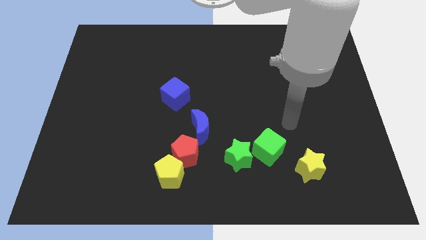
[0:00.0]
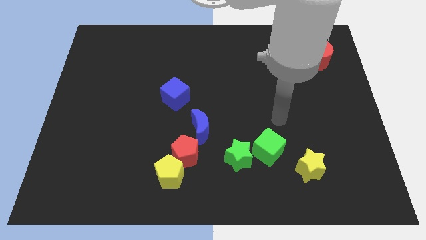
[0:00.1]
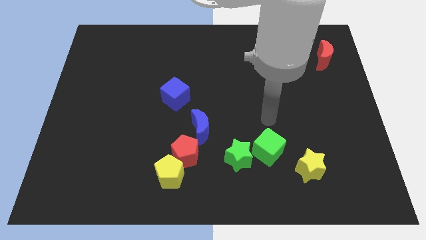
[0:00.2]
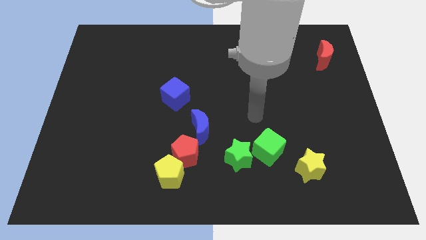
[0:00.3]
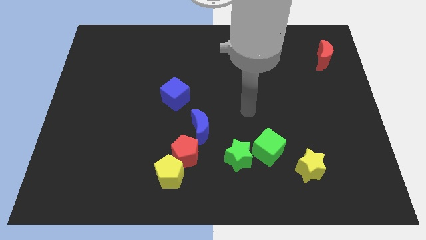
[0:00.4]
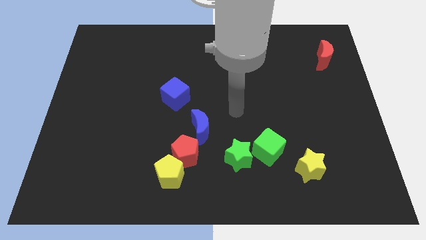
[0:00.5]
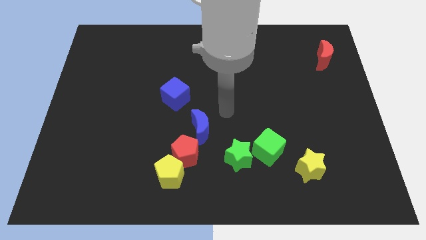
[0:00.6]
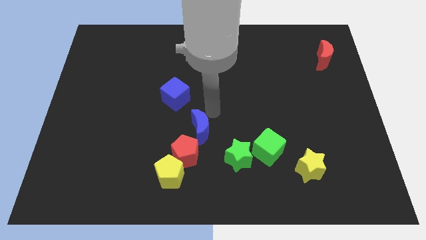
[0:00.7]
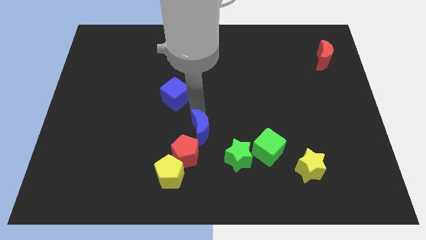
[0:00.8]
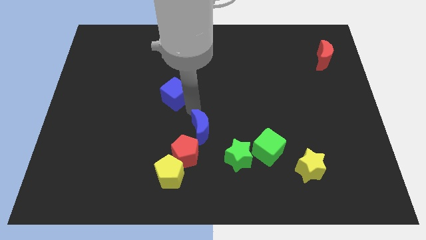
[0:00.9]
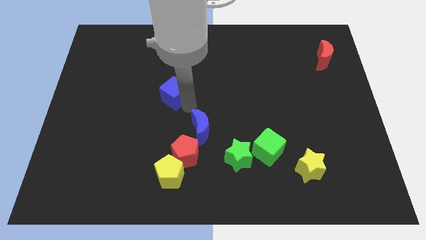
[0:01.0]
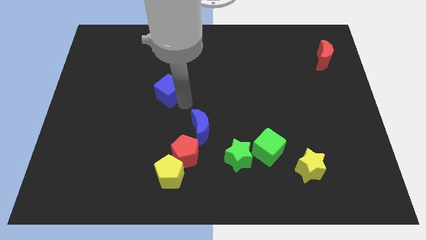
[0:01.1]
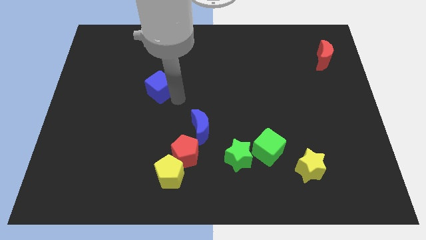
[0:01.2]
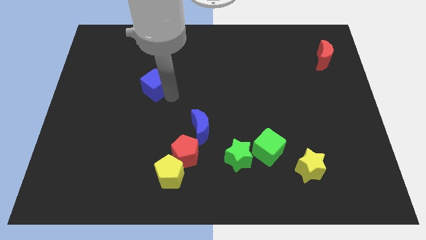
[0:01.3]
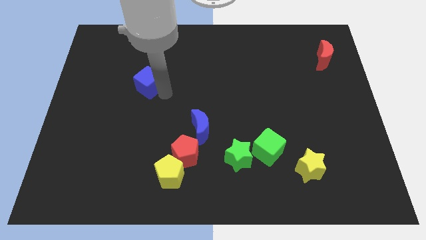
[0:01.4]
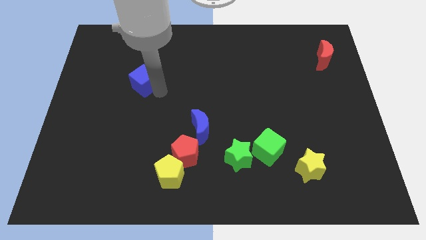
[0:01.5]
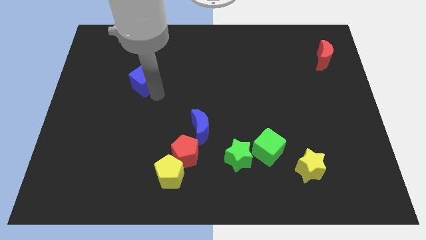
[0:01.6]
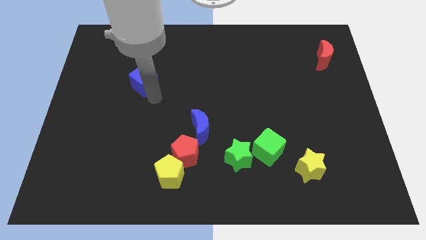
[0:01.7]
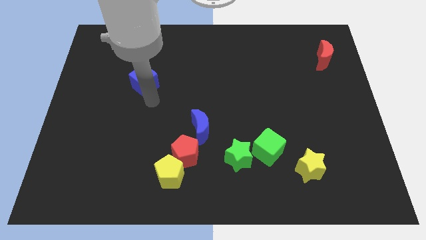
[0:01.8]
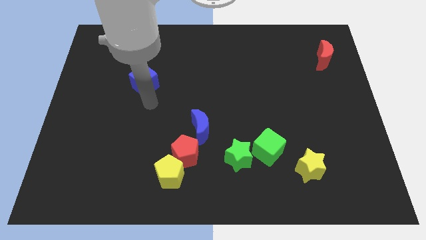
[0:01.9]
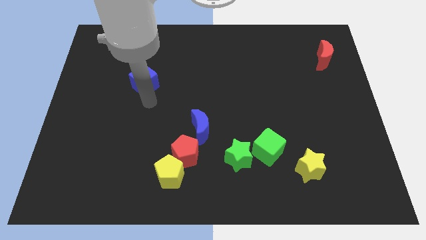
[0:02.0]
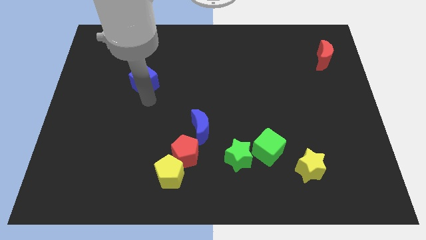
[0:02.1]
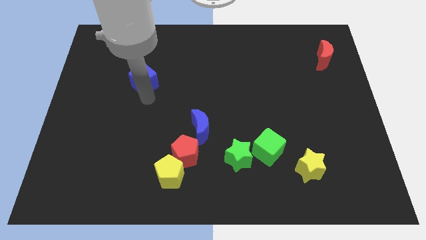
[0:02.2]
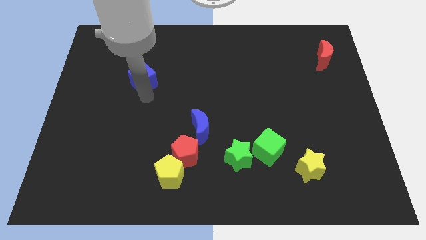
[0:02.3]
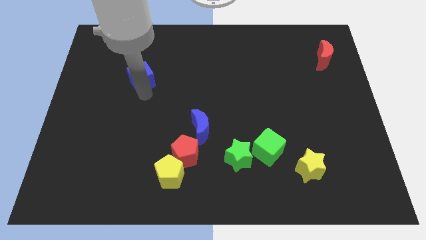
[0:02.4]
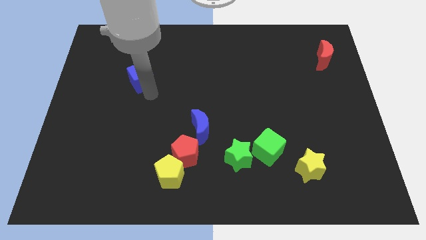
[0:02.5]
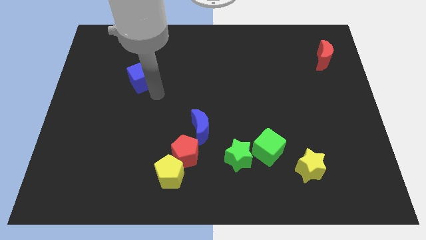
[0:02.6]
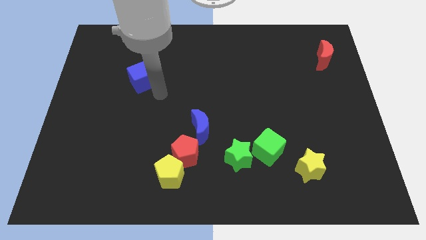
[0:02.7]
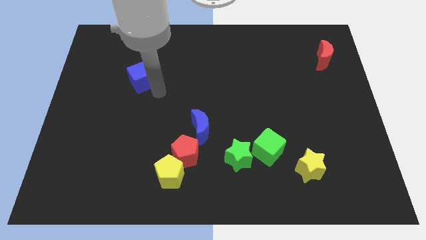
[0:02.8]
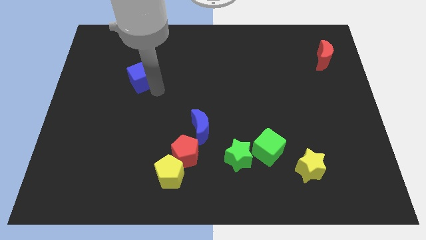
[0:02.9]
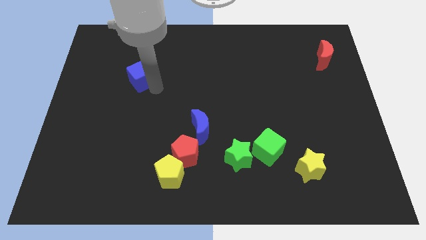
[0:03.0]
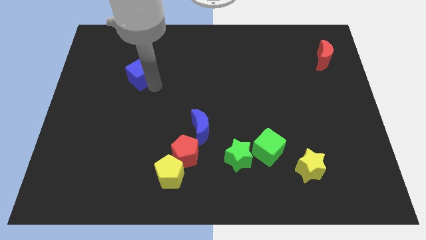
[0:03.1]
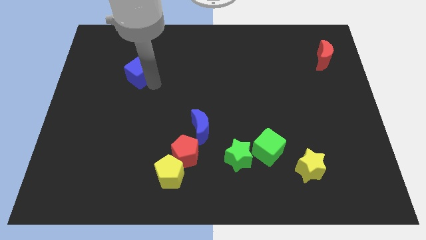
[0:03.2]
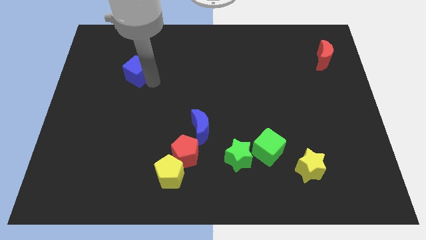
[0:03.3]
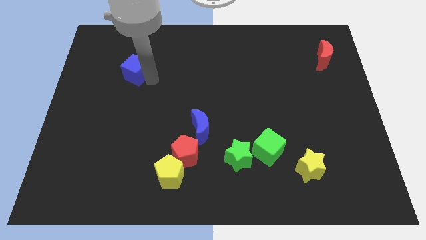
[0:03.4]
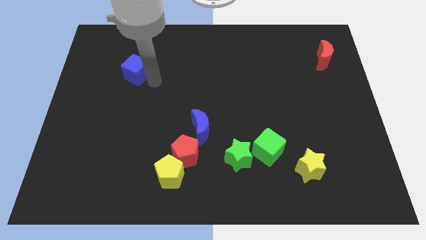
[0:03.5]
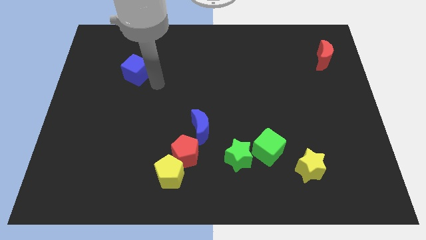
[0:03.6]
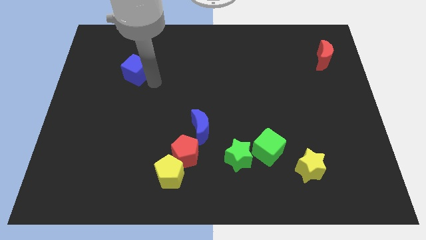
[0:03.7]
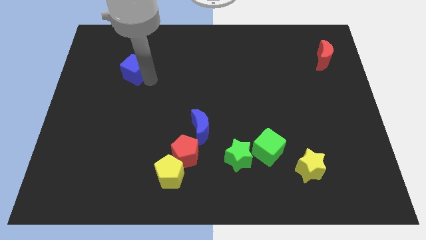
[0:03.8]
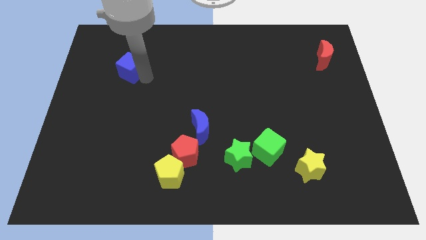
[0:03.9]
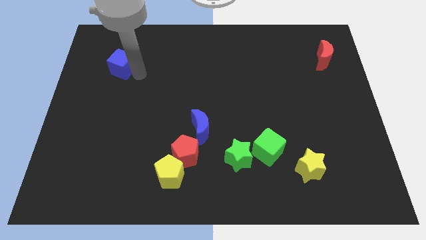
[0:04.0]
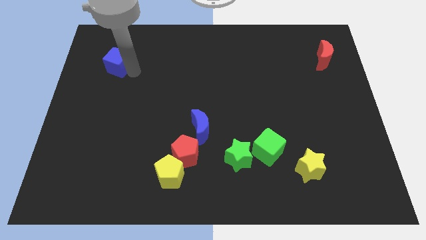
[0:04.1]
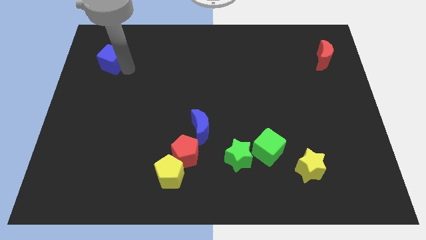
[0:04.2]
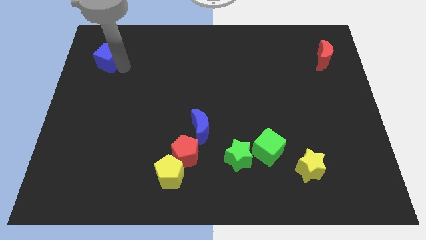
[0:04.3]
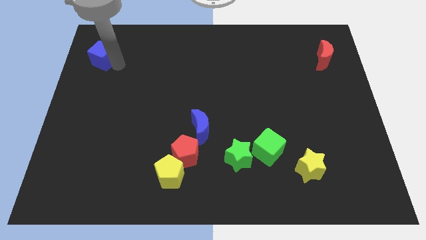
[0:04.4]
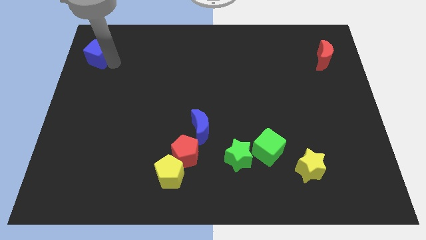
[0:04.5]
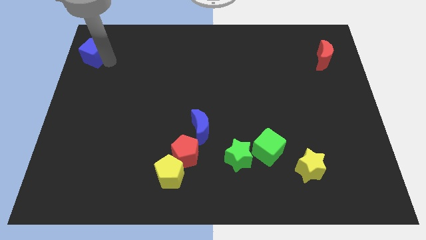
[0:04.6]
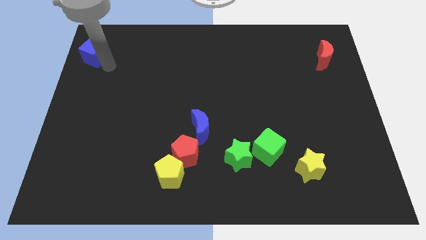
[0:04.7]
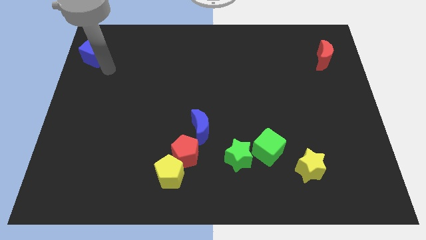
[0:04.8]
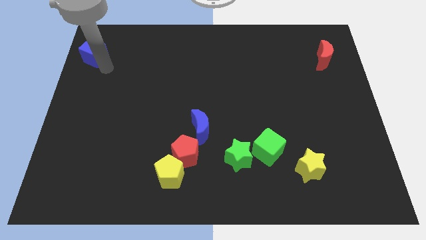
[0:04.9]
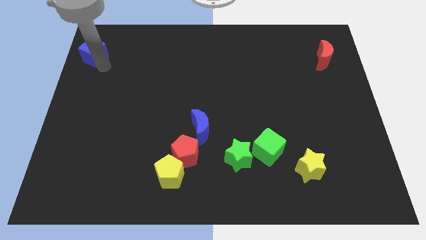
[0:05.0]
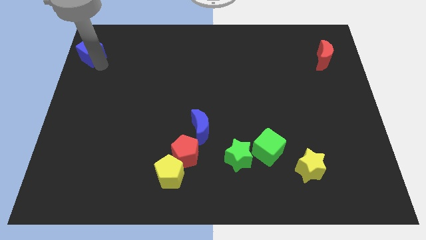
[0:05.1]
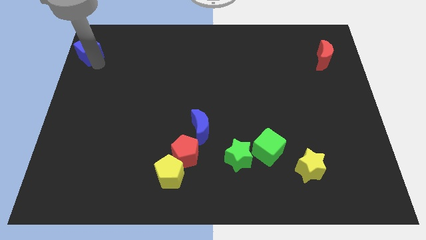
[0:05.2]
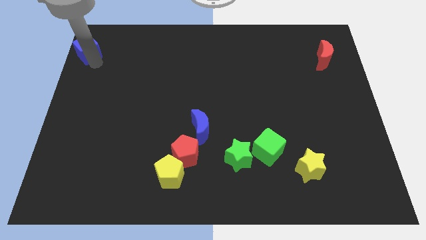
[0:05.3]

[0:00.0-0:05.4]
put the blue cube to the upper left corner

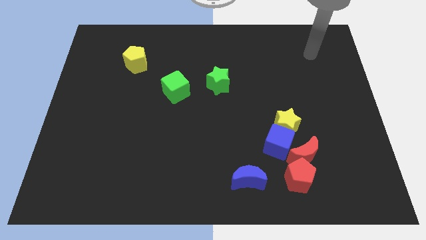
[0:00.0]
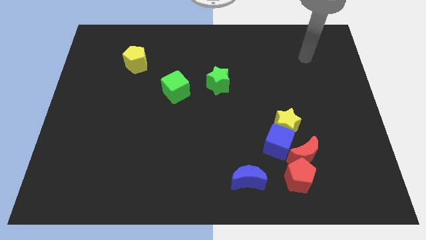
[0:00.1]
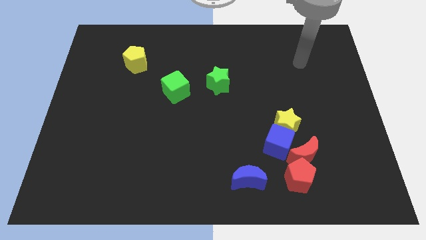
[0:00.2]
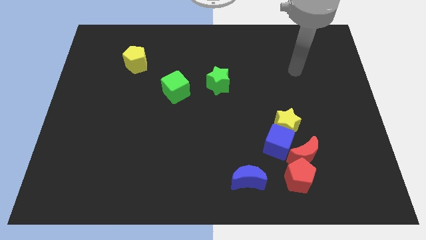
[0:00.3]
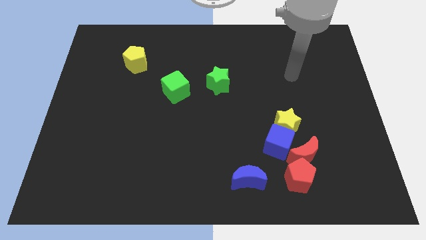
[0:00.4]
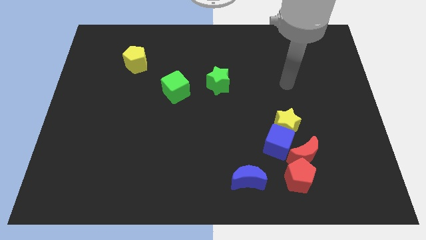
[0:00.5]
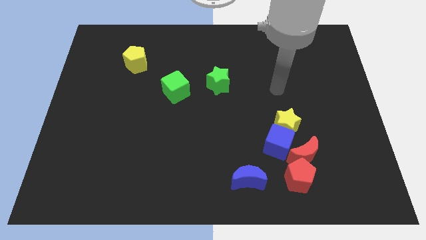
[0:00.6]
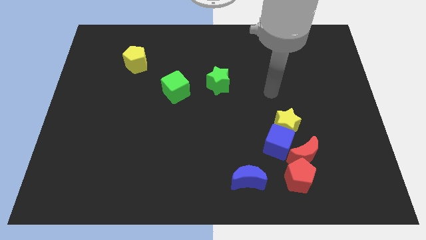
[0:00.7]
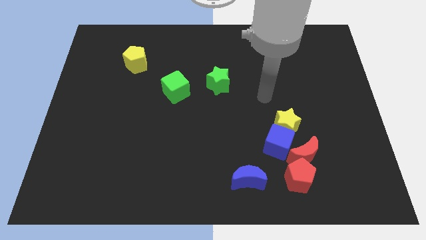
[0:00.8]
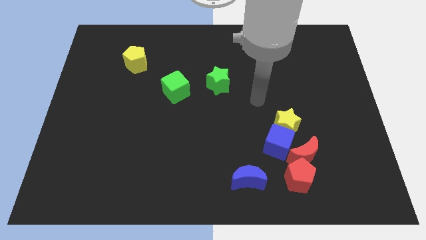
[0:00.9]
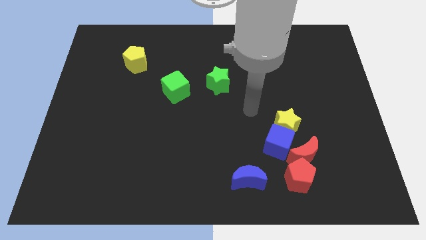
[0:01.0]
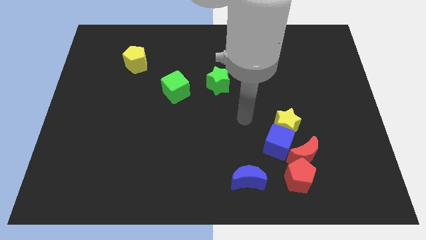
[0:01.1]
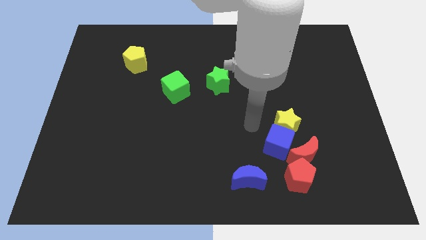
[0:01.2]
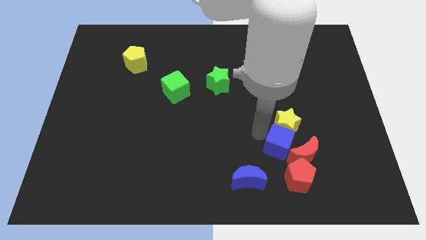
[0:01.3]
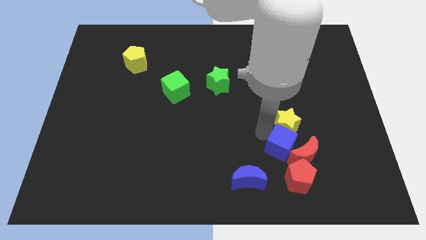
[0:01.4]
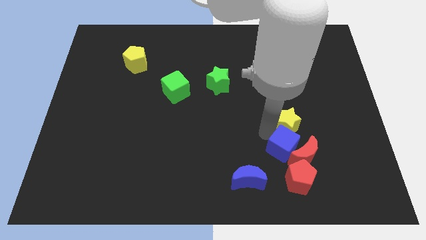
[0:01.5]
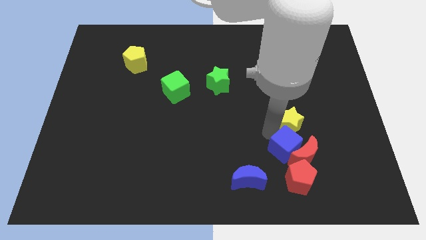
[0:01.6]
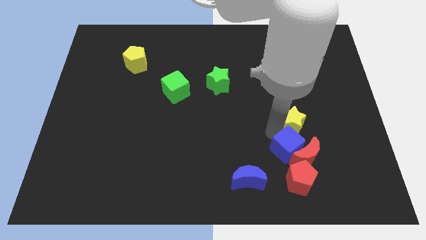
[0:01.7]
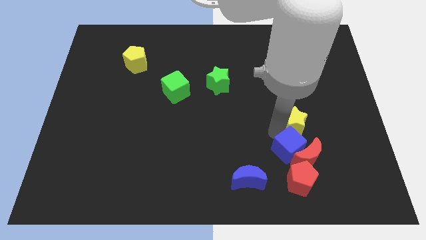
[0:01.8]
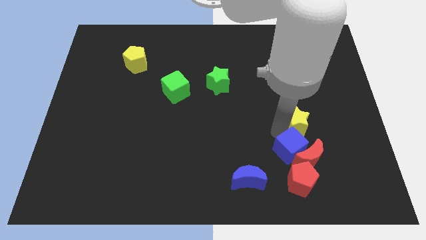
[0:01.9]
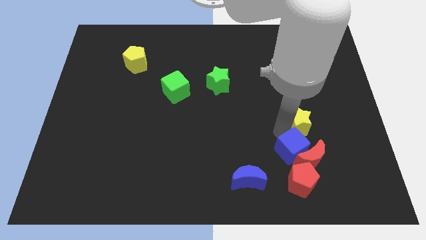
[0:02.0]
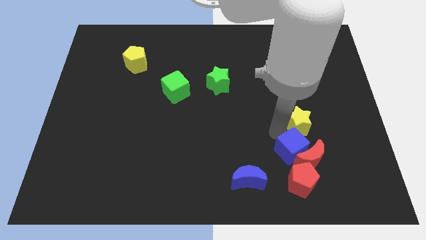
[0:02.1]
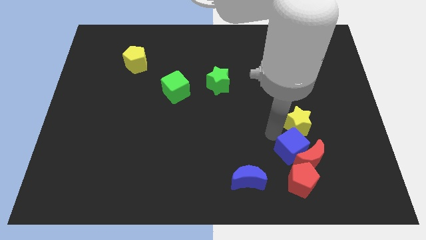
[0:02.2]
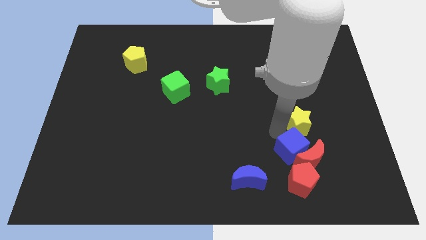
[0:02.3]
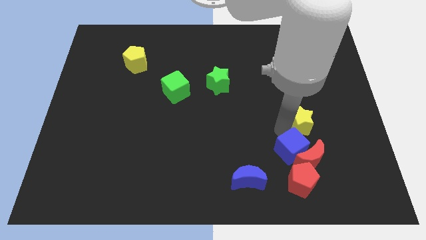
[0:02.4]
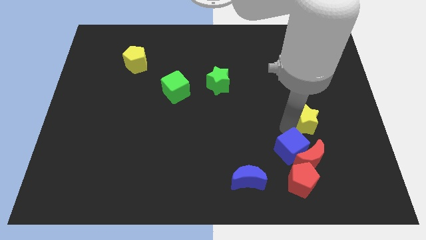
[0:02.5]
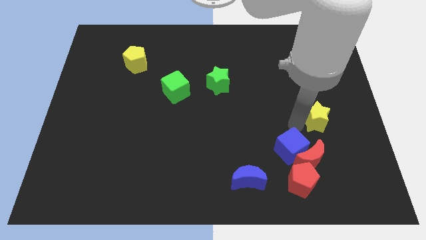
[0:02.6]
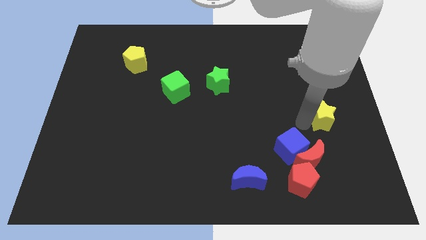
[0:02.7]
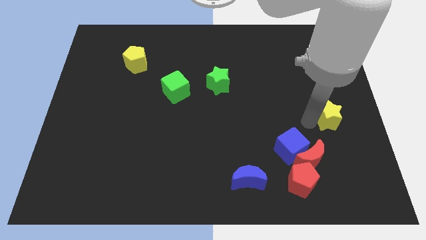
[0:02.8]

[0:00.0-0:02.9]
slide the yellow star to the right side of the board
